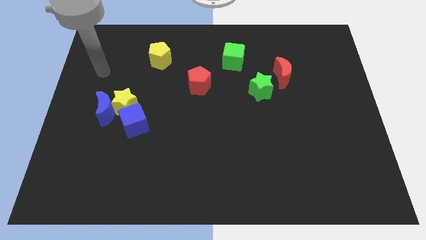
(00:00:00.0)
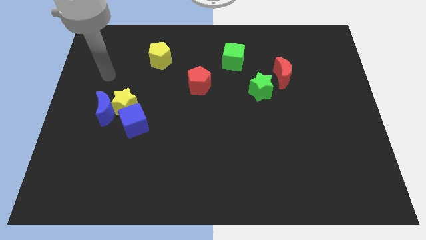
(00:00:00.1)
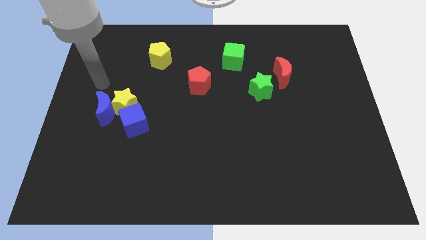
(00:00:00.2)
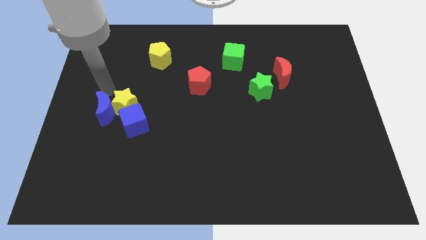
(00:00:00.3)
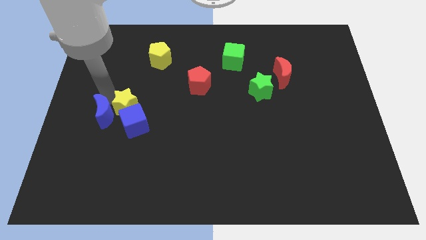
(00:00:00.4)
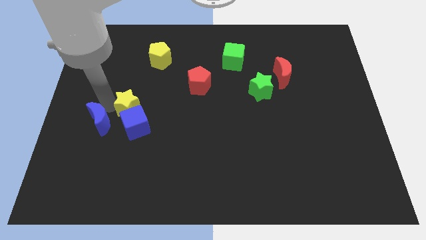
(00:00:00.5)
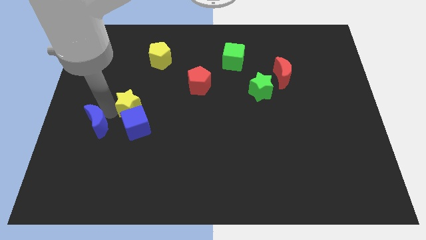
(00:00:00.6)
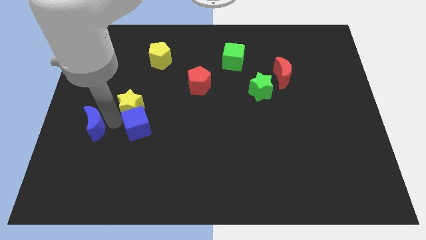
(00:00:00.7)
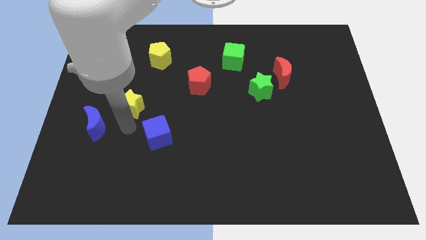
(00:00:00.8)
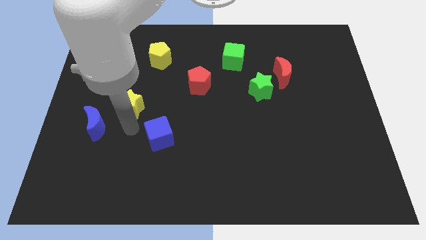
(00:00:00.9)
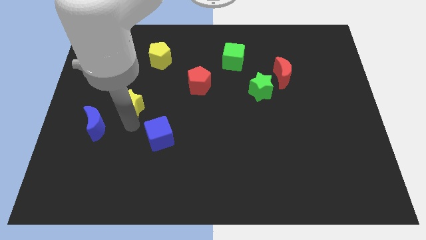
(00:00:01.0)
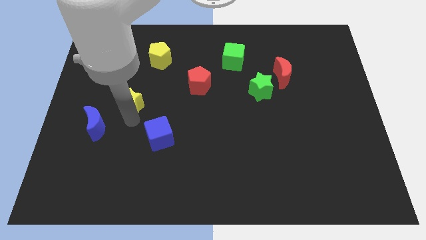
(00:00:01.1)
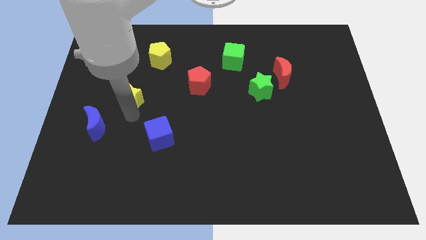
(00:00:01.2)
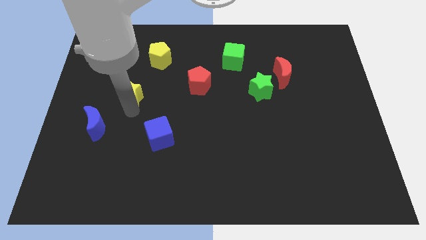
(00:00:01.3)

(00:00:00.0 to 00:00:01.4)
separate the yellow star from the blue moon and blue cube

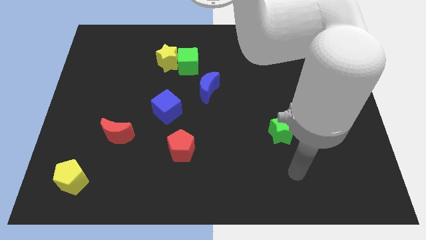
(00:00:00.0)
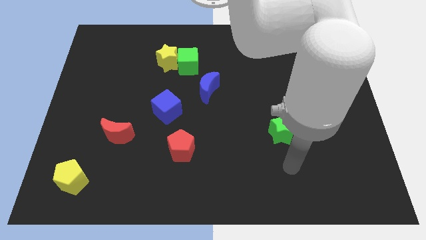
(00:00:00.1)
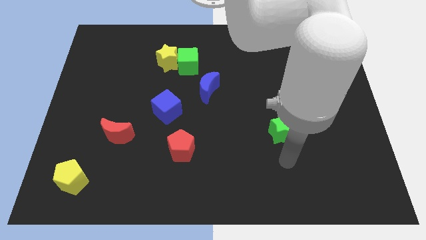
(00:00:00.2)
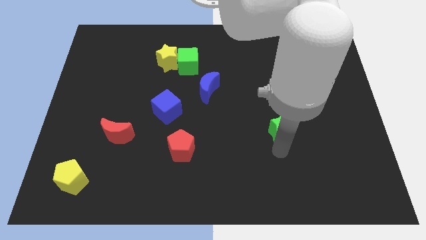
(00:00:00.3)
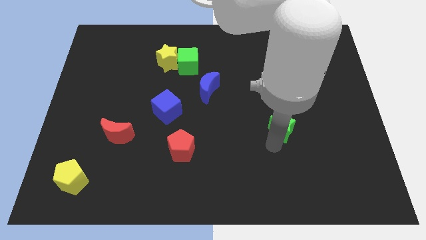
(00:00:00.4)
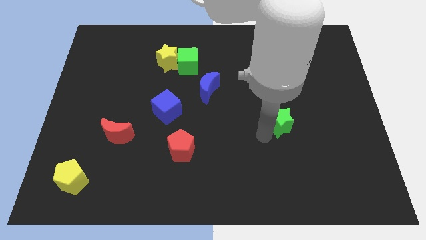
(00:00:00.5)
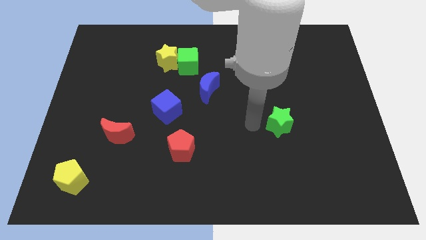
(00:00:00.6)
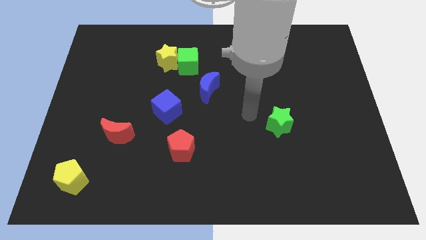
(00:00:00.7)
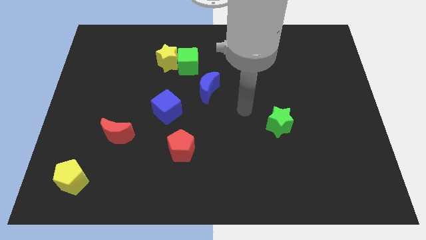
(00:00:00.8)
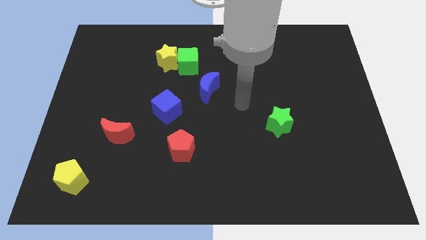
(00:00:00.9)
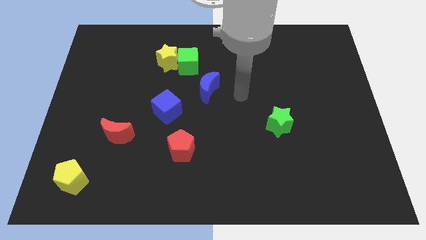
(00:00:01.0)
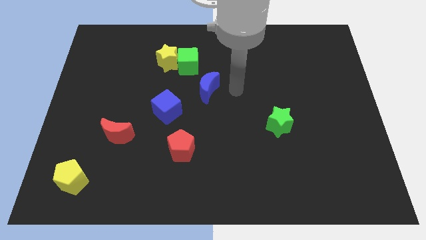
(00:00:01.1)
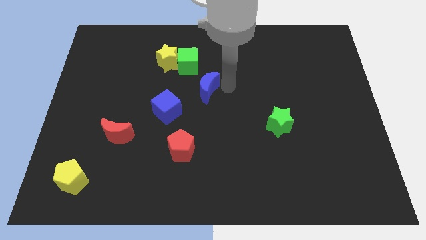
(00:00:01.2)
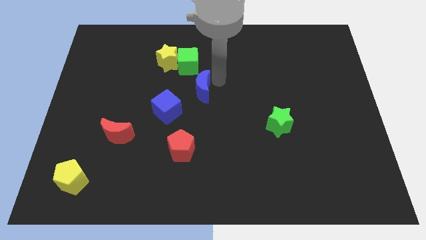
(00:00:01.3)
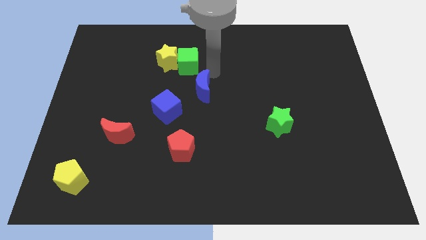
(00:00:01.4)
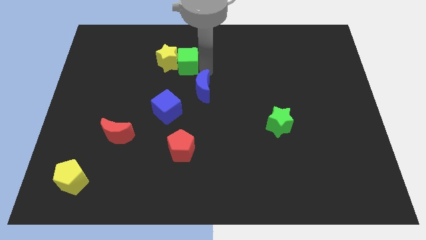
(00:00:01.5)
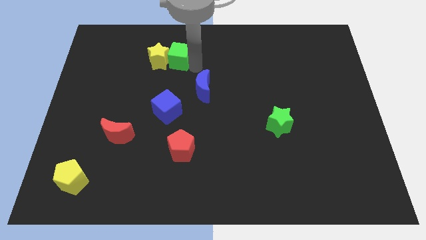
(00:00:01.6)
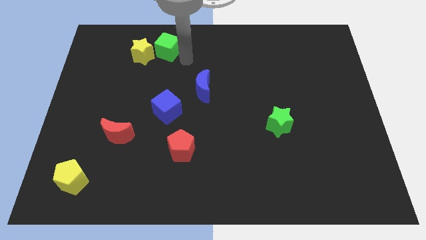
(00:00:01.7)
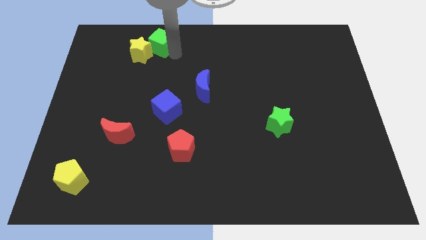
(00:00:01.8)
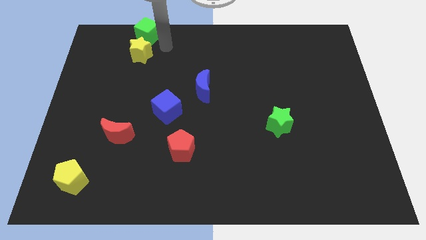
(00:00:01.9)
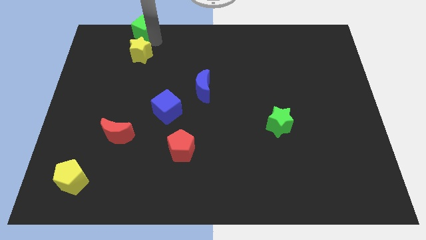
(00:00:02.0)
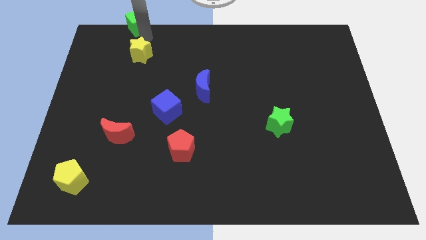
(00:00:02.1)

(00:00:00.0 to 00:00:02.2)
move the yellow star away from the green cube

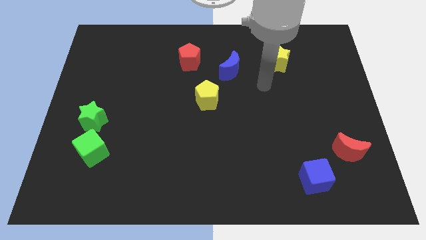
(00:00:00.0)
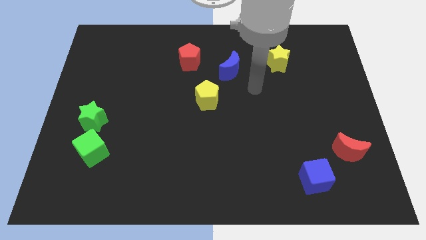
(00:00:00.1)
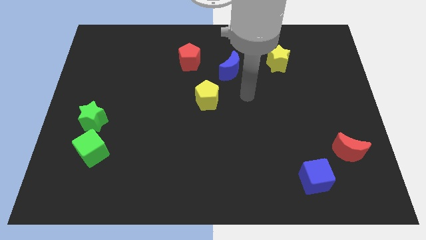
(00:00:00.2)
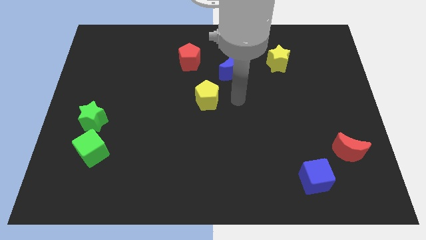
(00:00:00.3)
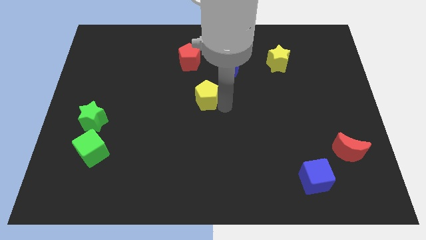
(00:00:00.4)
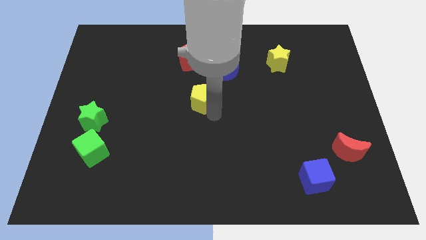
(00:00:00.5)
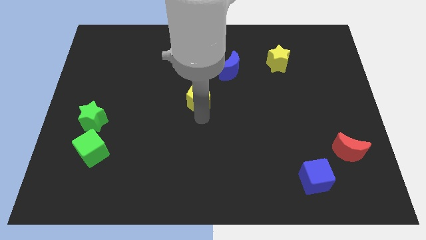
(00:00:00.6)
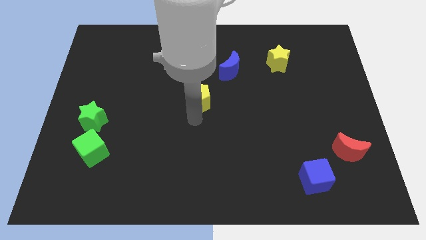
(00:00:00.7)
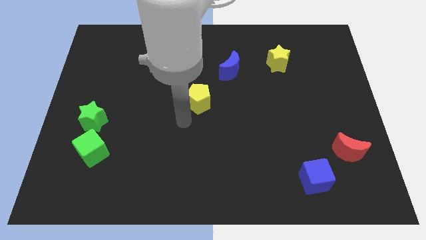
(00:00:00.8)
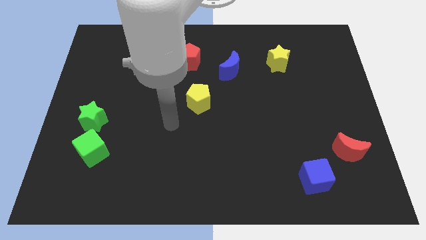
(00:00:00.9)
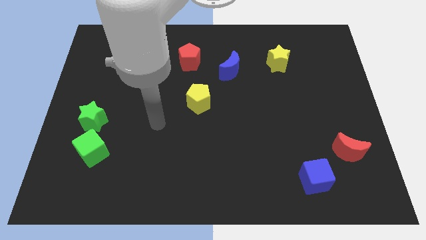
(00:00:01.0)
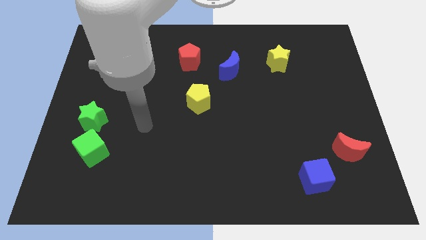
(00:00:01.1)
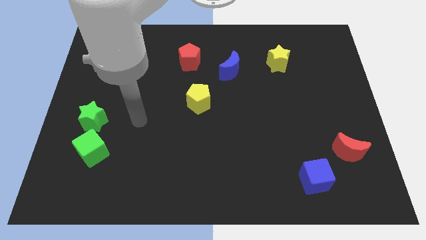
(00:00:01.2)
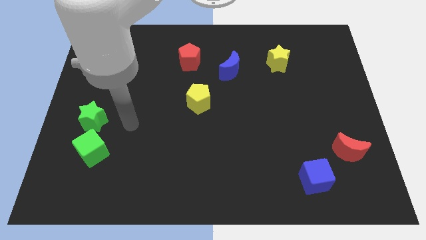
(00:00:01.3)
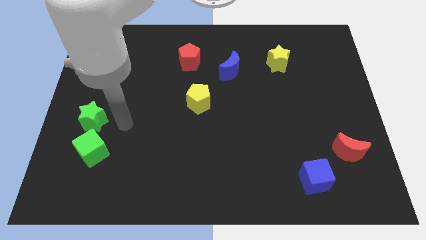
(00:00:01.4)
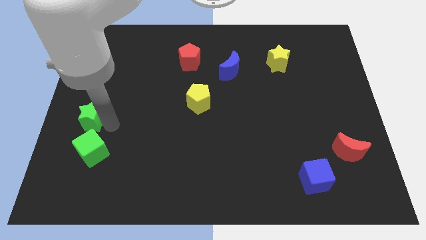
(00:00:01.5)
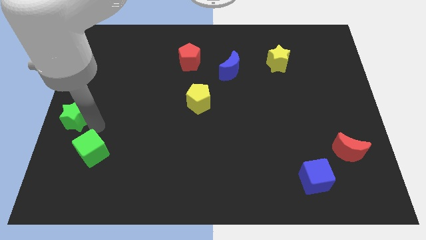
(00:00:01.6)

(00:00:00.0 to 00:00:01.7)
pull the green cube apart from the green star

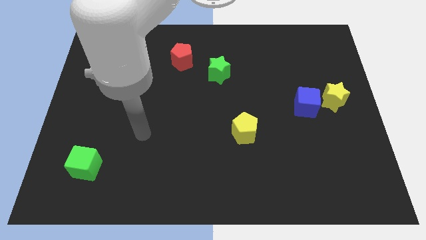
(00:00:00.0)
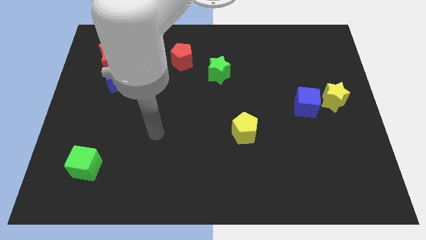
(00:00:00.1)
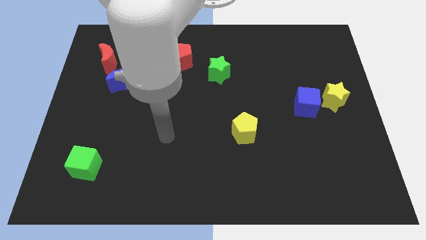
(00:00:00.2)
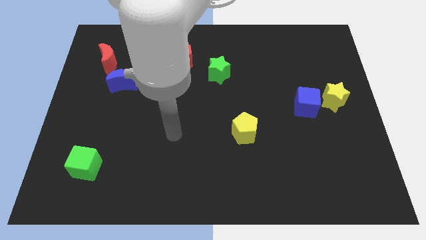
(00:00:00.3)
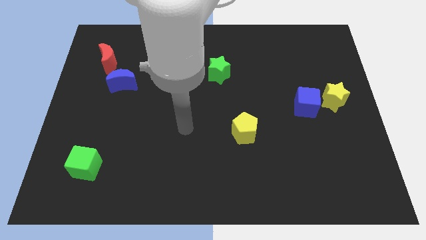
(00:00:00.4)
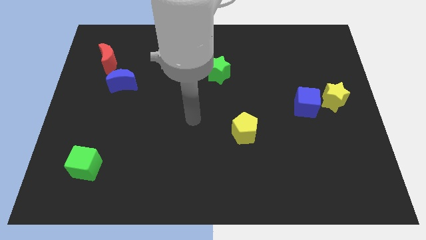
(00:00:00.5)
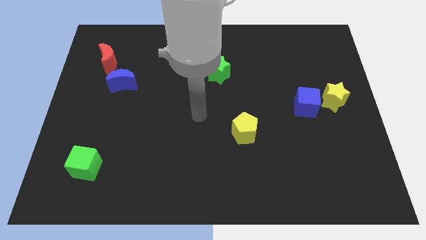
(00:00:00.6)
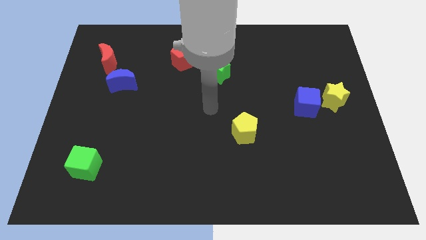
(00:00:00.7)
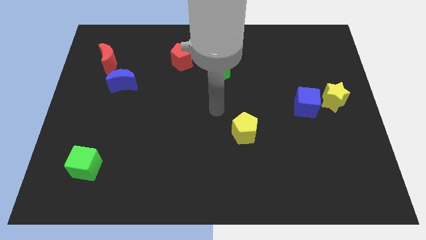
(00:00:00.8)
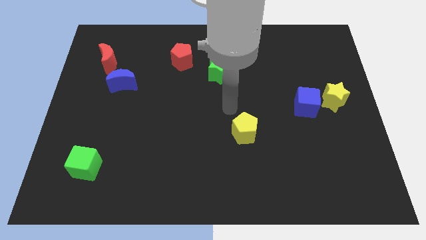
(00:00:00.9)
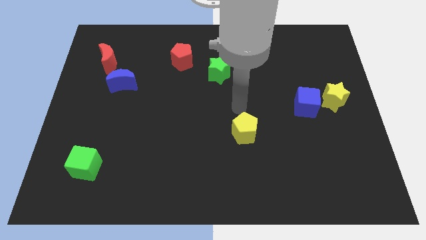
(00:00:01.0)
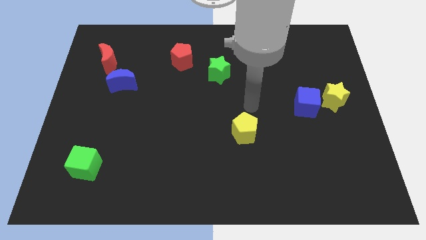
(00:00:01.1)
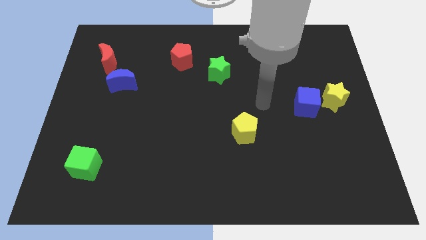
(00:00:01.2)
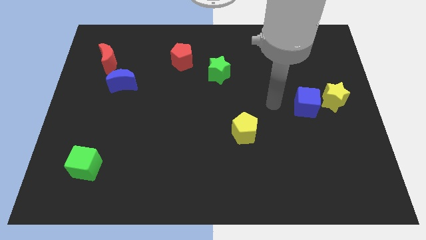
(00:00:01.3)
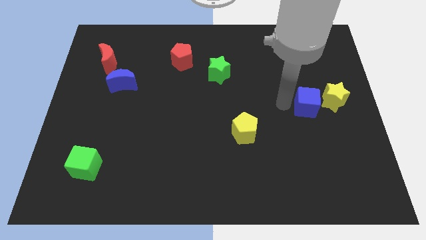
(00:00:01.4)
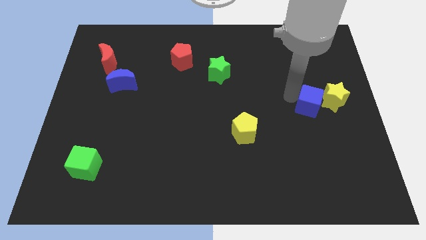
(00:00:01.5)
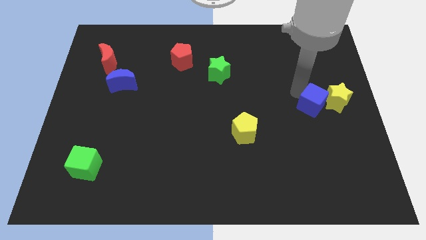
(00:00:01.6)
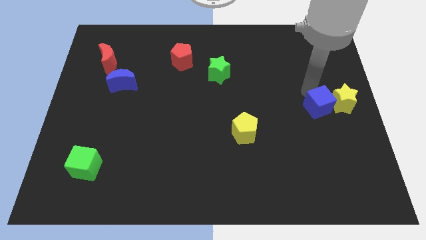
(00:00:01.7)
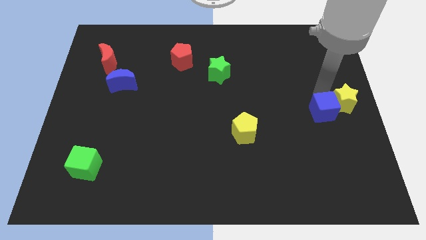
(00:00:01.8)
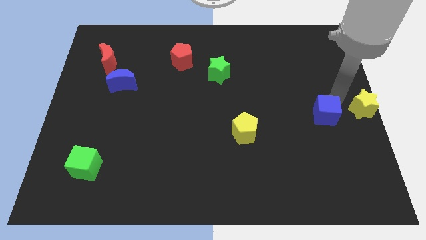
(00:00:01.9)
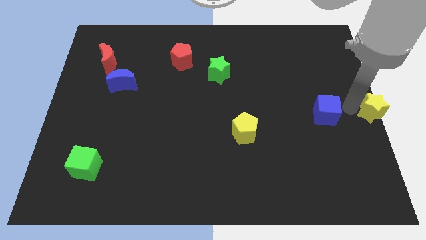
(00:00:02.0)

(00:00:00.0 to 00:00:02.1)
move the blue cube away from the yellow star

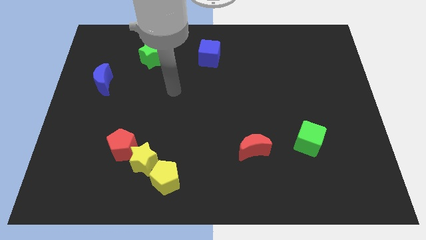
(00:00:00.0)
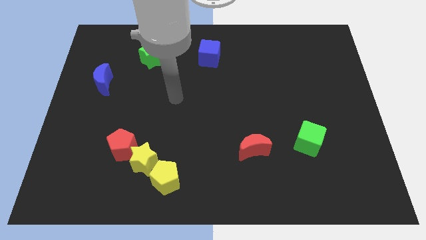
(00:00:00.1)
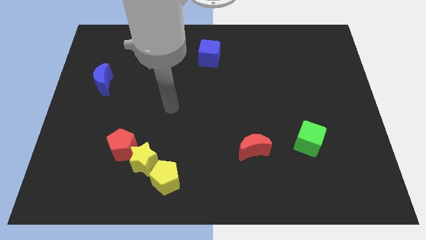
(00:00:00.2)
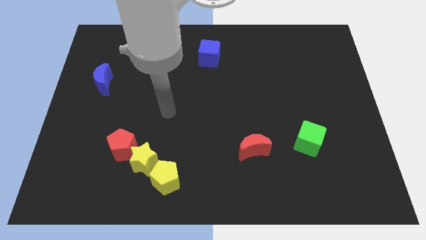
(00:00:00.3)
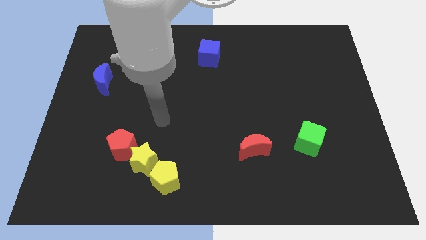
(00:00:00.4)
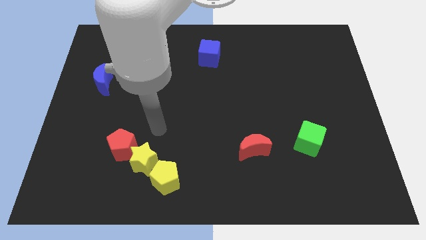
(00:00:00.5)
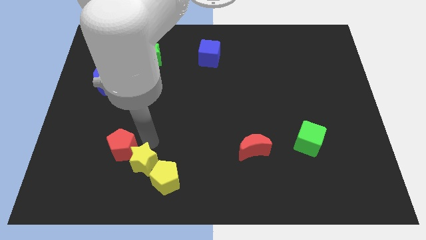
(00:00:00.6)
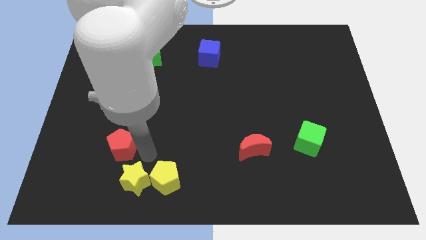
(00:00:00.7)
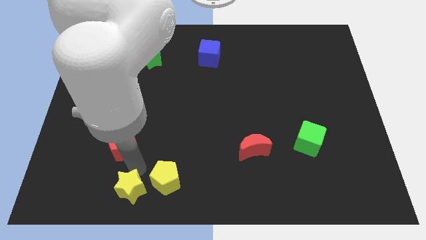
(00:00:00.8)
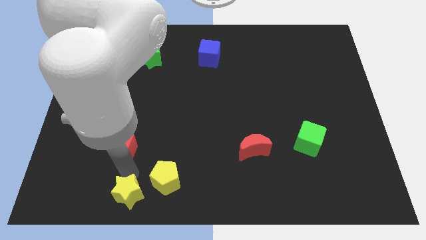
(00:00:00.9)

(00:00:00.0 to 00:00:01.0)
move the red pentagon away from the yellow star

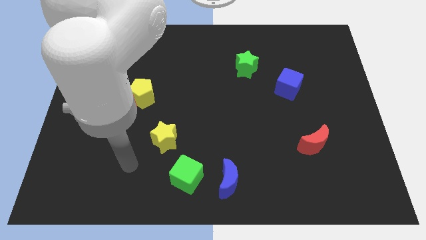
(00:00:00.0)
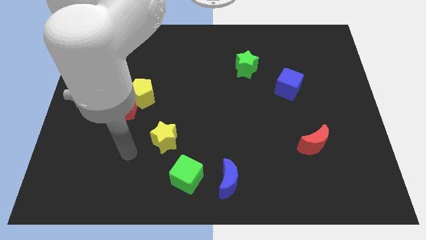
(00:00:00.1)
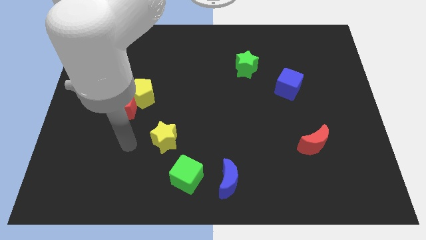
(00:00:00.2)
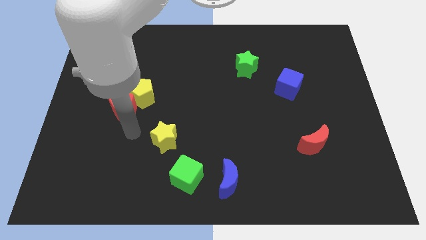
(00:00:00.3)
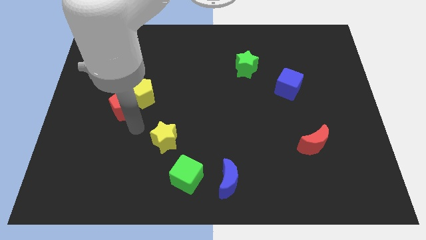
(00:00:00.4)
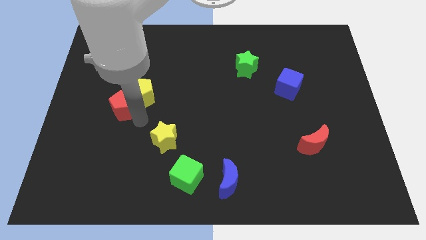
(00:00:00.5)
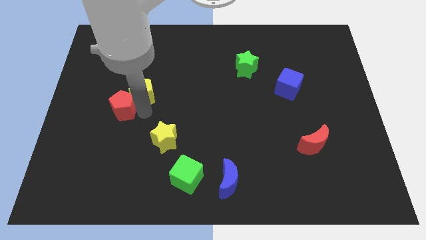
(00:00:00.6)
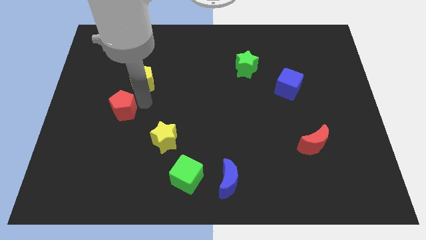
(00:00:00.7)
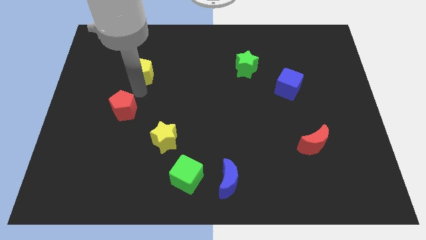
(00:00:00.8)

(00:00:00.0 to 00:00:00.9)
separate the red pentagon from the yellow pentagon
